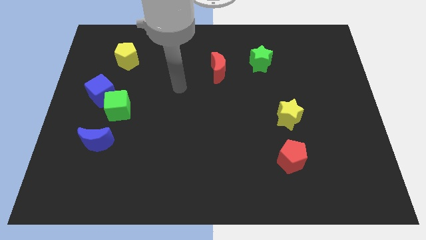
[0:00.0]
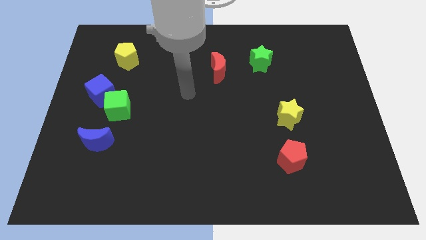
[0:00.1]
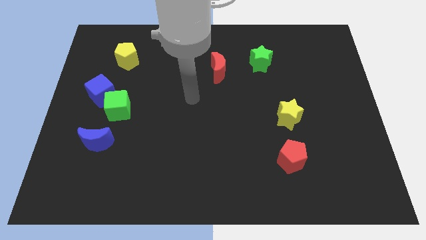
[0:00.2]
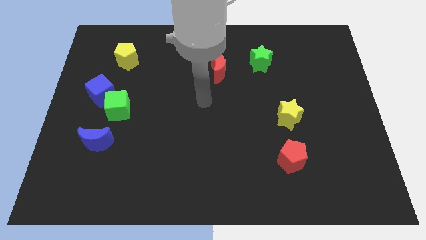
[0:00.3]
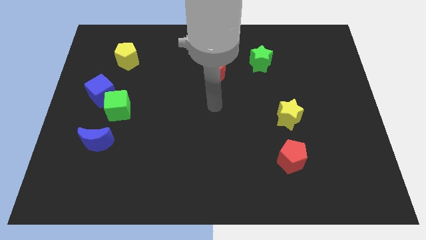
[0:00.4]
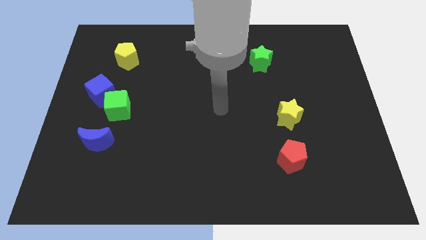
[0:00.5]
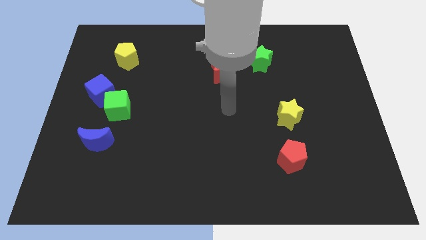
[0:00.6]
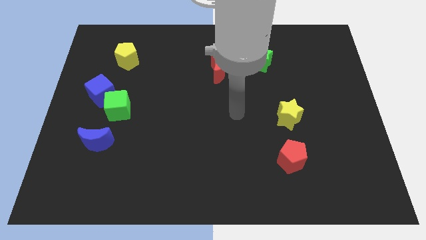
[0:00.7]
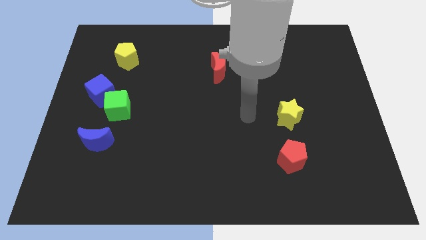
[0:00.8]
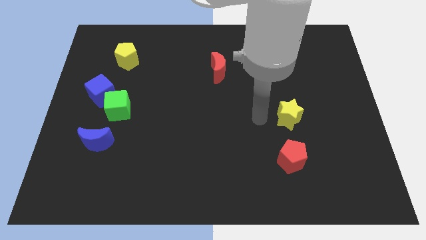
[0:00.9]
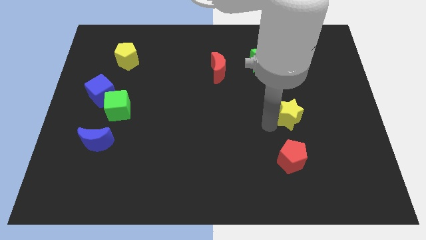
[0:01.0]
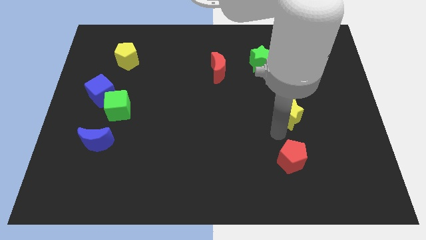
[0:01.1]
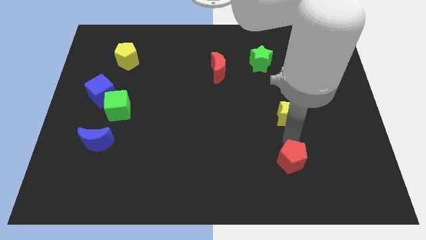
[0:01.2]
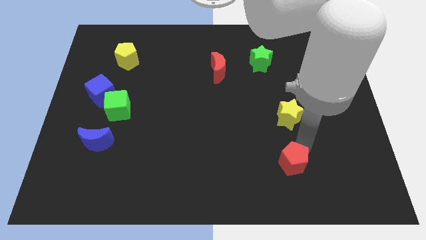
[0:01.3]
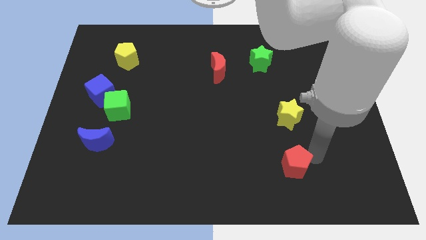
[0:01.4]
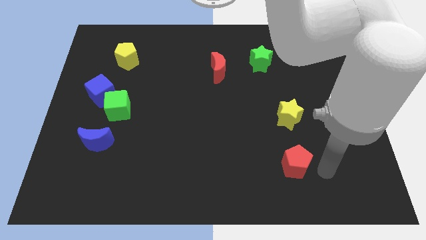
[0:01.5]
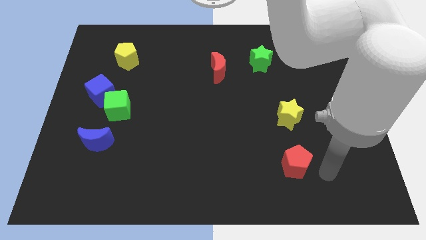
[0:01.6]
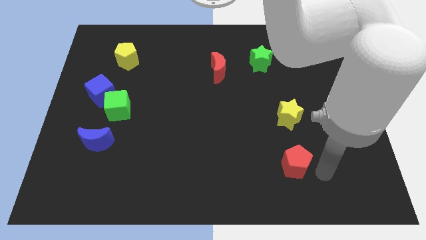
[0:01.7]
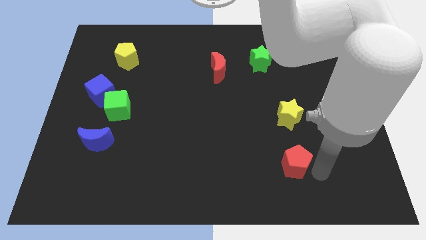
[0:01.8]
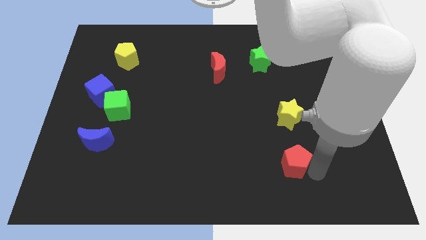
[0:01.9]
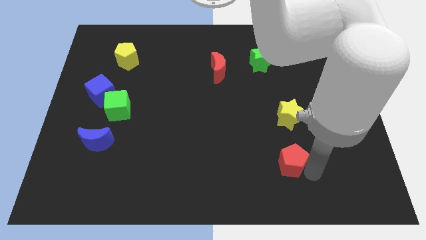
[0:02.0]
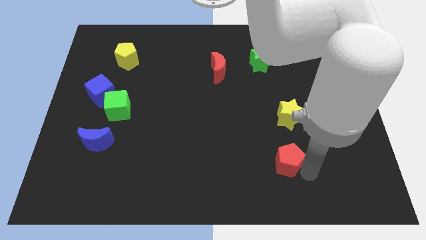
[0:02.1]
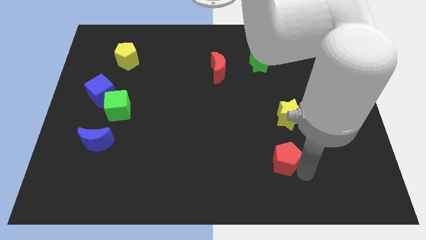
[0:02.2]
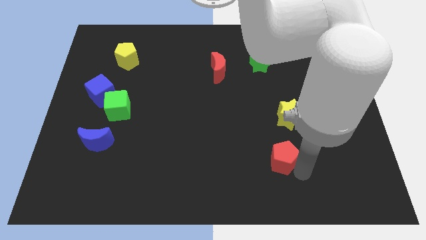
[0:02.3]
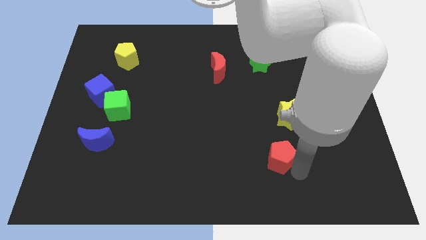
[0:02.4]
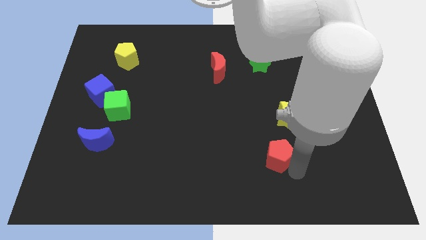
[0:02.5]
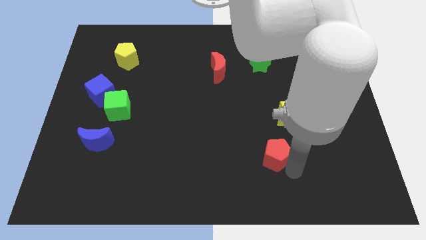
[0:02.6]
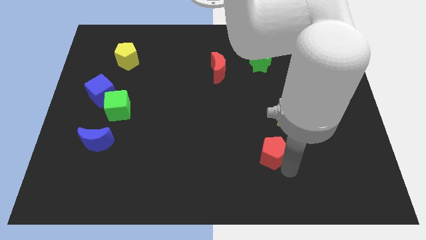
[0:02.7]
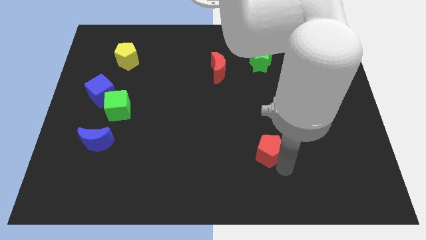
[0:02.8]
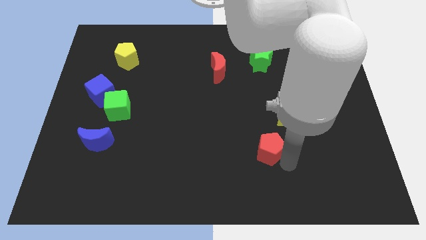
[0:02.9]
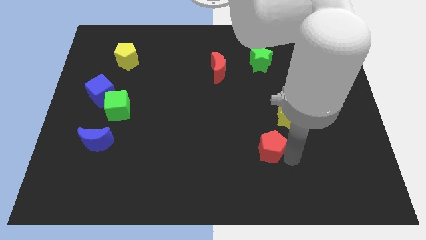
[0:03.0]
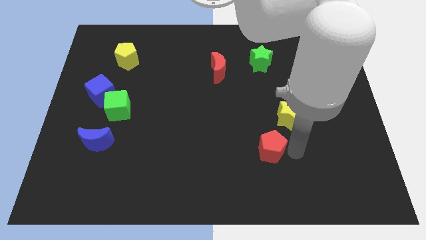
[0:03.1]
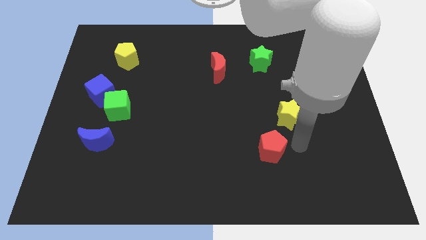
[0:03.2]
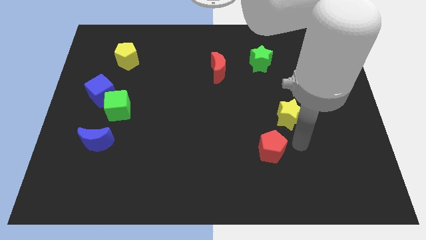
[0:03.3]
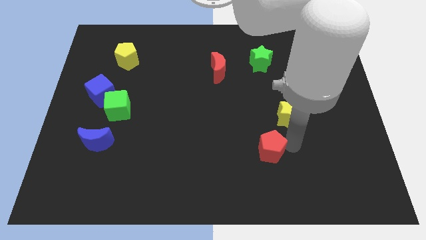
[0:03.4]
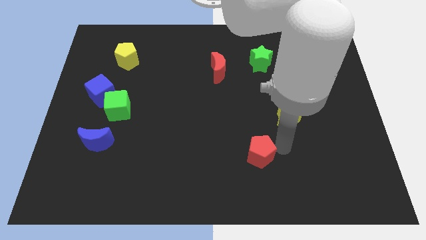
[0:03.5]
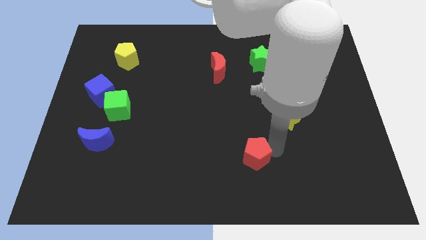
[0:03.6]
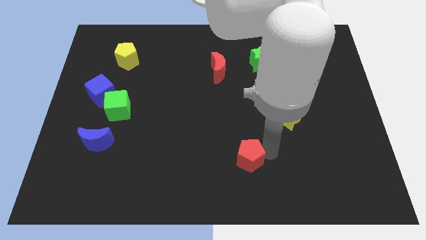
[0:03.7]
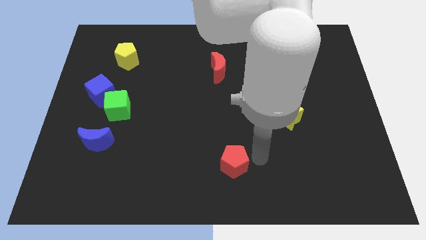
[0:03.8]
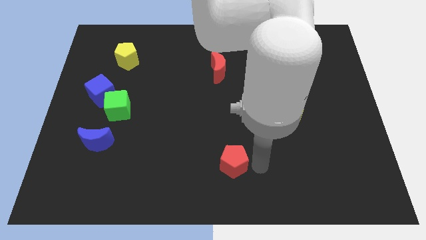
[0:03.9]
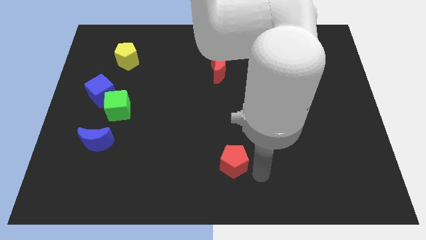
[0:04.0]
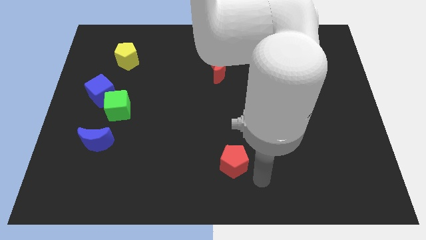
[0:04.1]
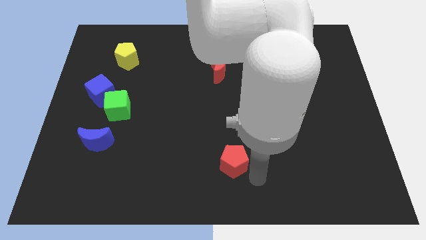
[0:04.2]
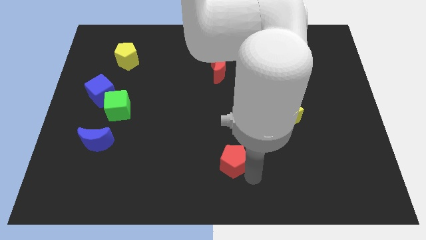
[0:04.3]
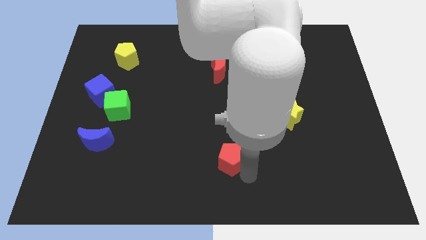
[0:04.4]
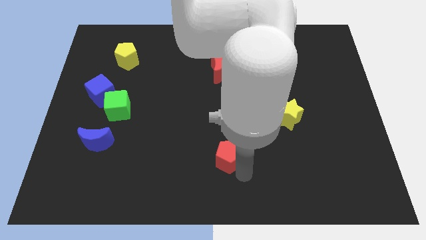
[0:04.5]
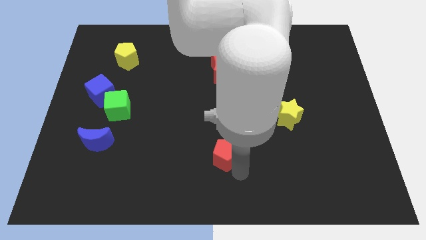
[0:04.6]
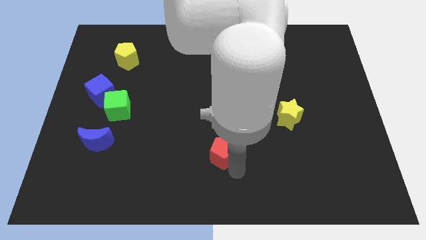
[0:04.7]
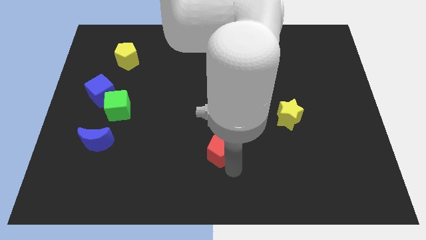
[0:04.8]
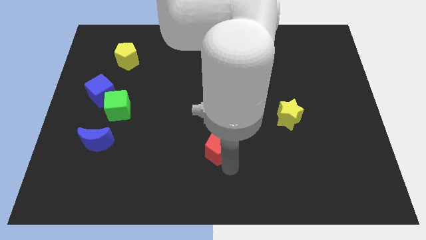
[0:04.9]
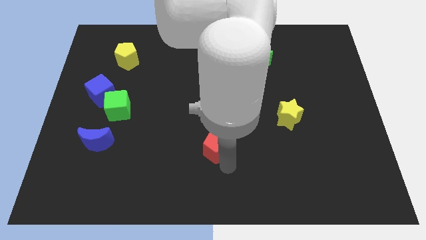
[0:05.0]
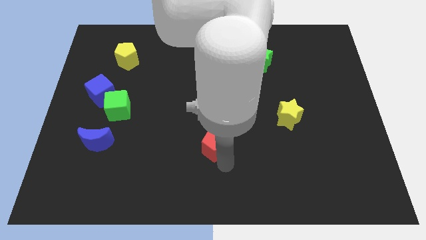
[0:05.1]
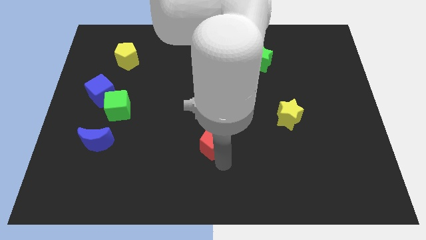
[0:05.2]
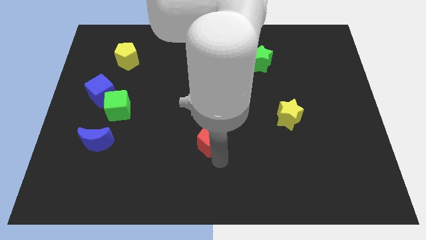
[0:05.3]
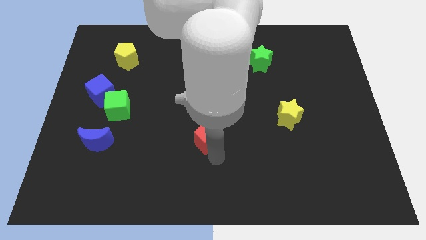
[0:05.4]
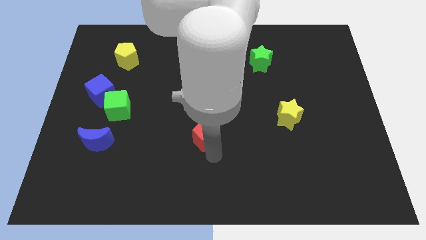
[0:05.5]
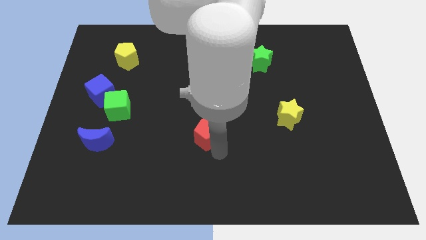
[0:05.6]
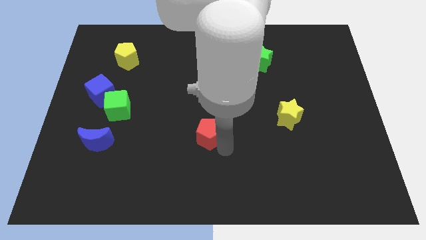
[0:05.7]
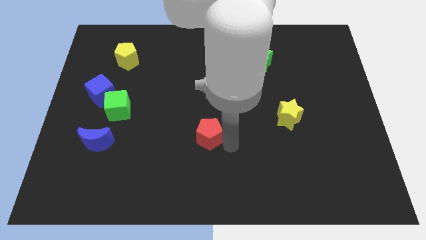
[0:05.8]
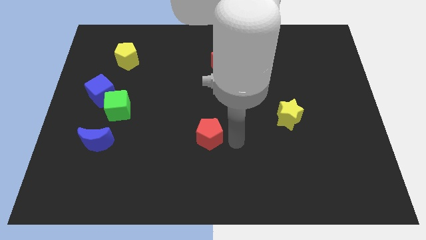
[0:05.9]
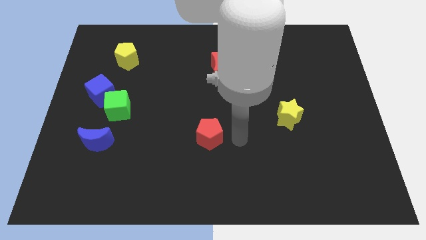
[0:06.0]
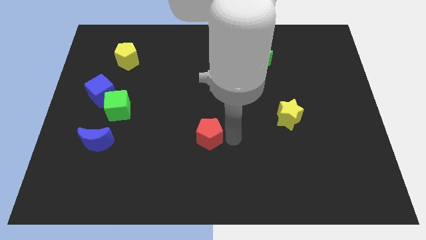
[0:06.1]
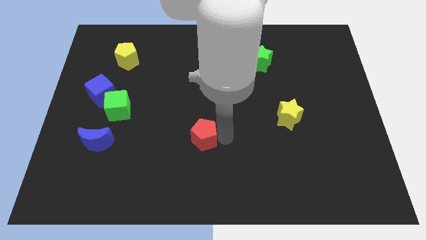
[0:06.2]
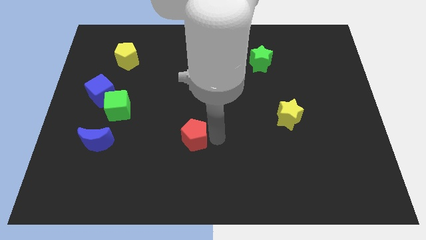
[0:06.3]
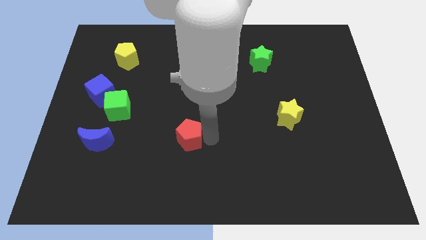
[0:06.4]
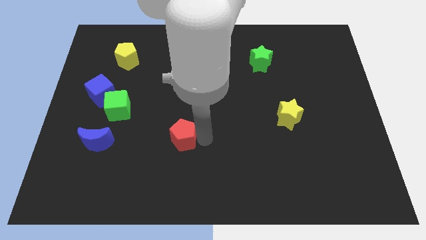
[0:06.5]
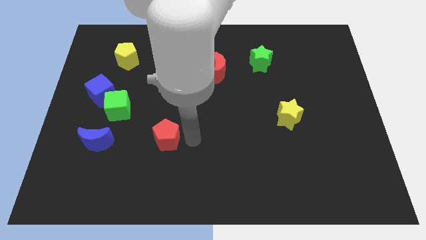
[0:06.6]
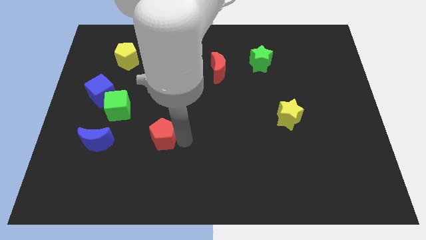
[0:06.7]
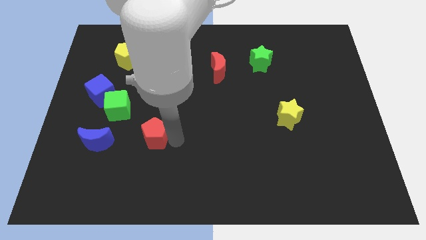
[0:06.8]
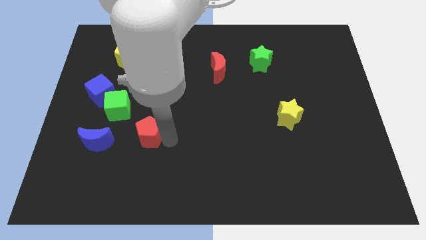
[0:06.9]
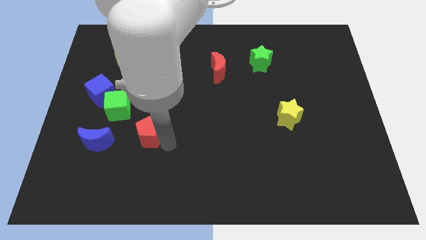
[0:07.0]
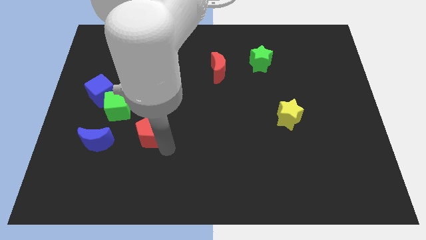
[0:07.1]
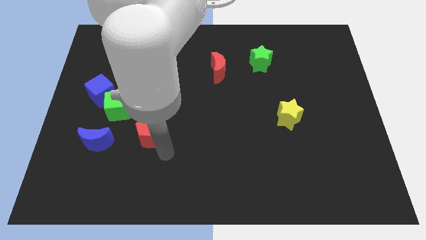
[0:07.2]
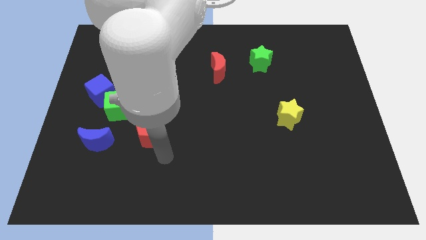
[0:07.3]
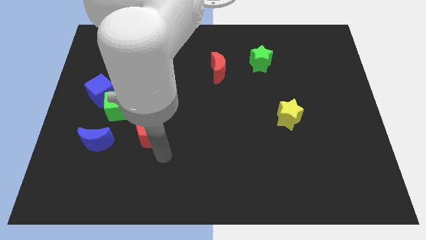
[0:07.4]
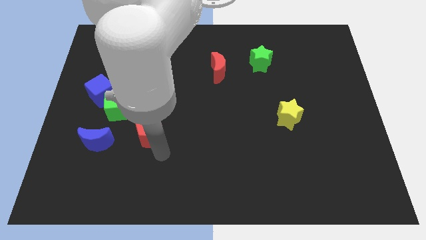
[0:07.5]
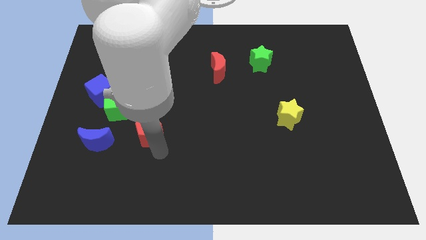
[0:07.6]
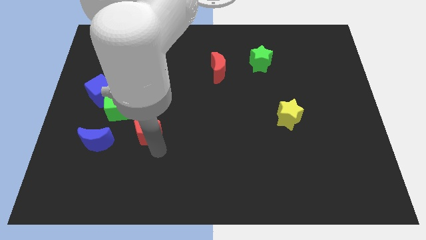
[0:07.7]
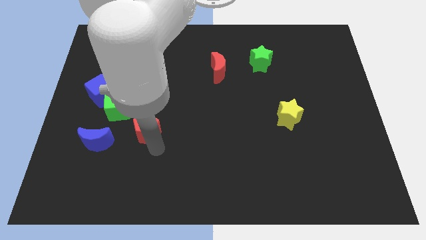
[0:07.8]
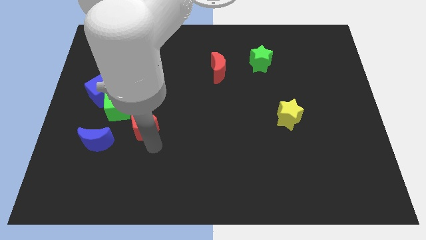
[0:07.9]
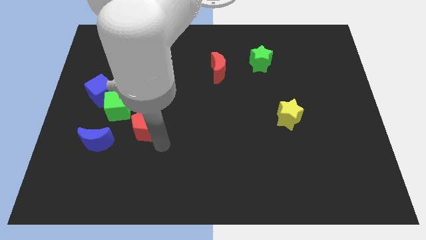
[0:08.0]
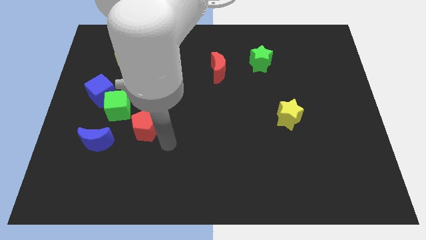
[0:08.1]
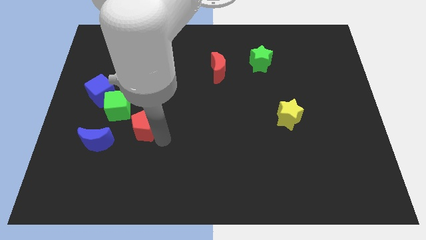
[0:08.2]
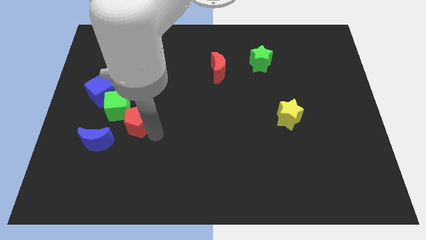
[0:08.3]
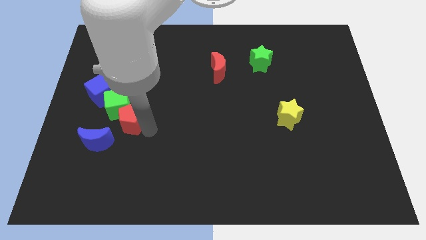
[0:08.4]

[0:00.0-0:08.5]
slide the red pentagon to the green cube
